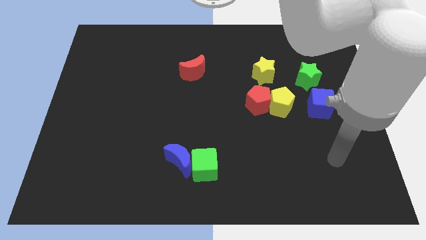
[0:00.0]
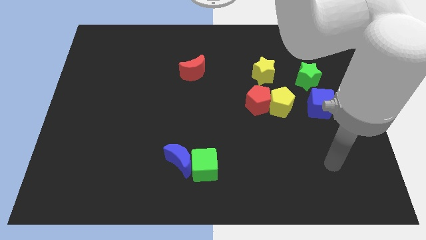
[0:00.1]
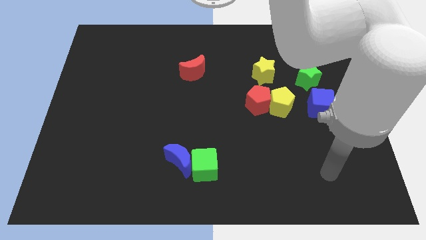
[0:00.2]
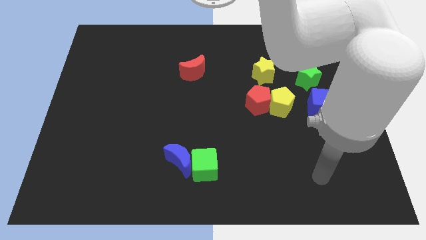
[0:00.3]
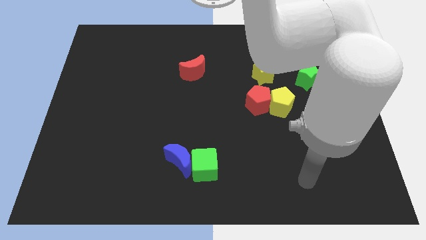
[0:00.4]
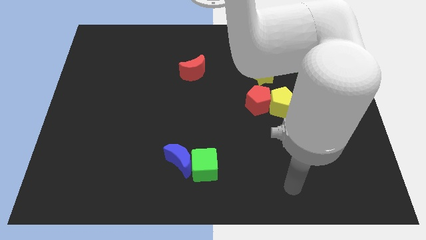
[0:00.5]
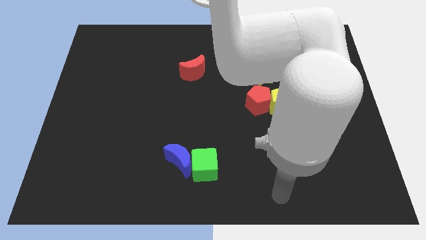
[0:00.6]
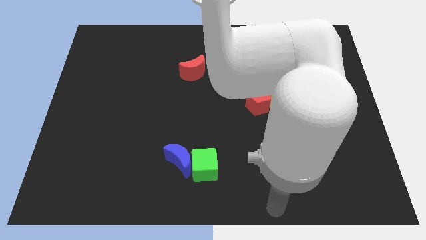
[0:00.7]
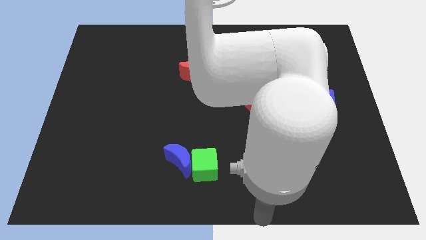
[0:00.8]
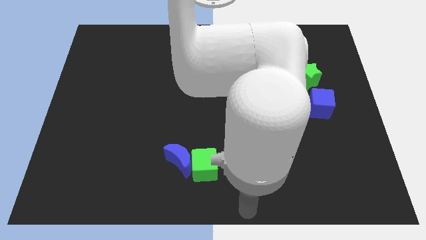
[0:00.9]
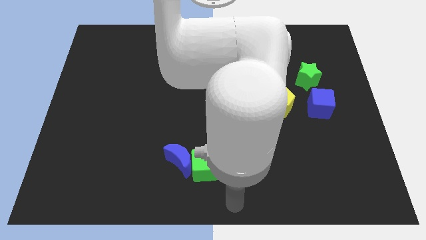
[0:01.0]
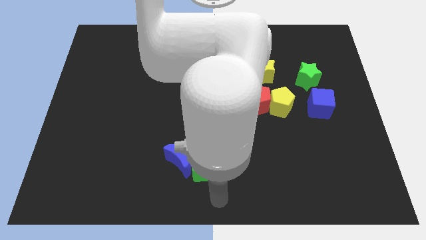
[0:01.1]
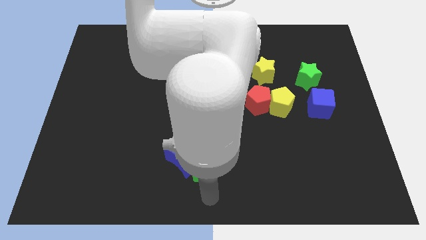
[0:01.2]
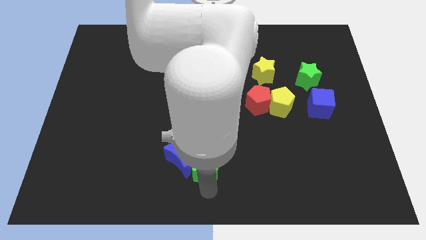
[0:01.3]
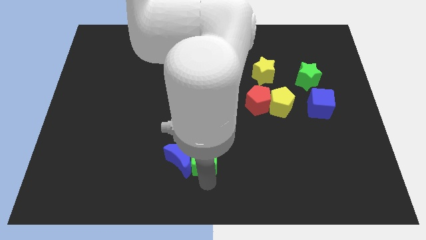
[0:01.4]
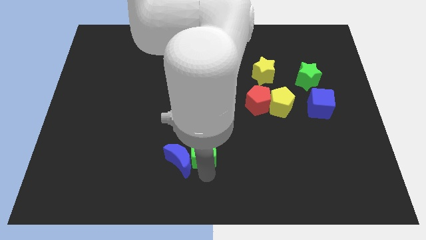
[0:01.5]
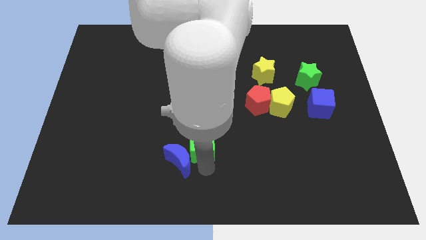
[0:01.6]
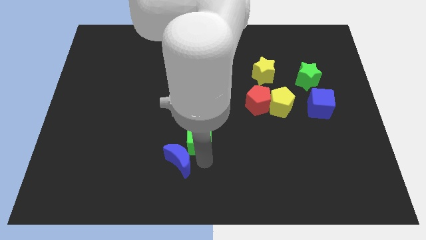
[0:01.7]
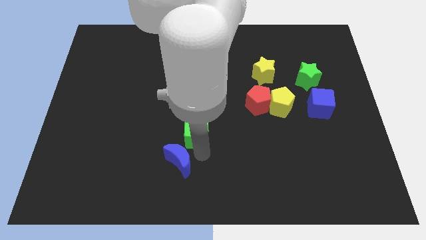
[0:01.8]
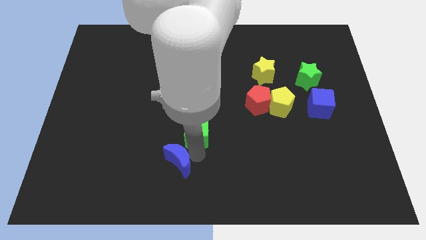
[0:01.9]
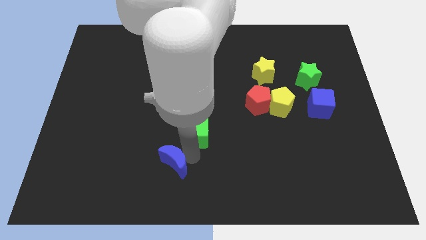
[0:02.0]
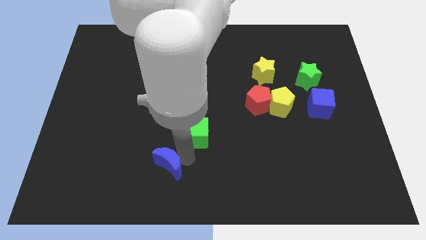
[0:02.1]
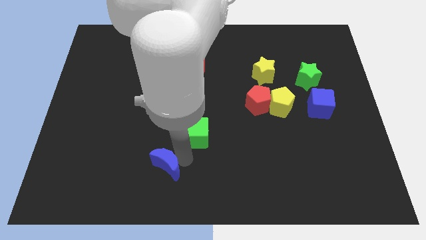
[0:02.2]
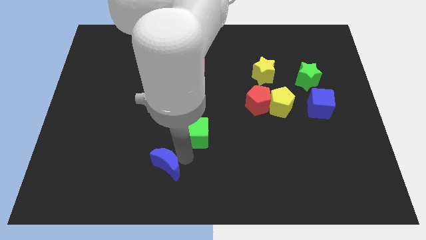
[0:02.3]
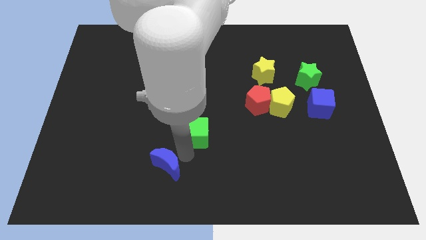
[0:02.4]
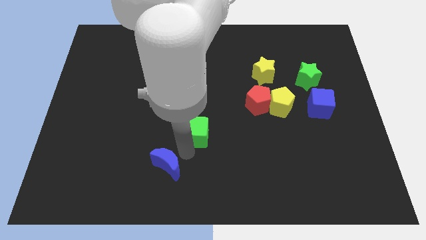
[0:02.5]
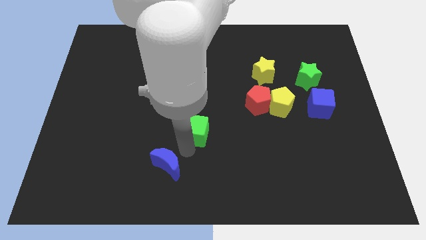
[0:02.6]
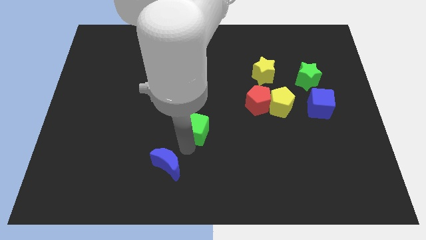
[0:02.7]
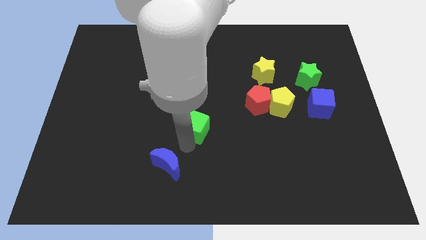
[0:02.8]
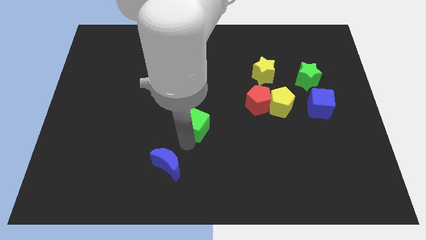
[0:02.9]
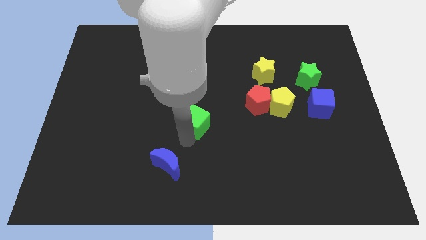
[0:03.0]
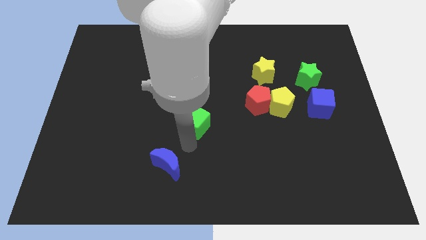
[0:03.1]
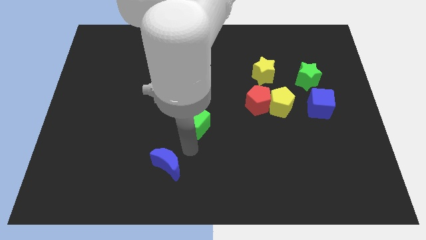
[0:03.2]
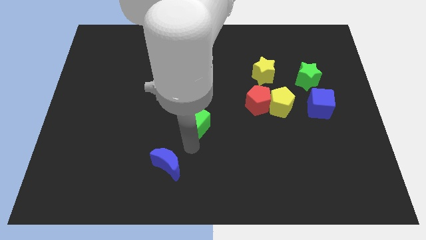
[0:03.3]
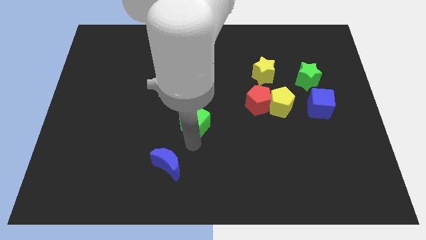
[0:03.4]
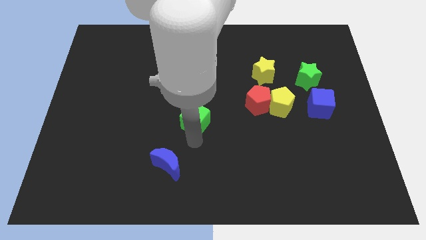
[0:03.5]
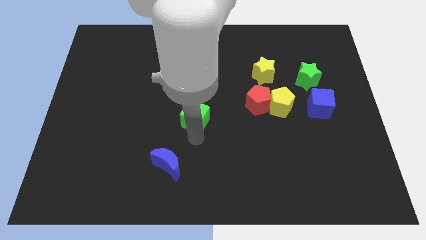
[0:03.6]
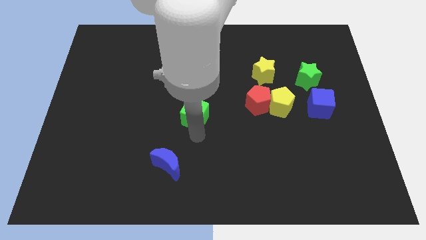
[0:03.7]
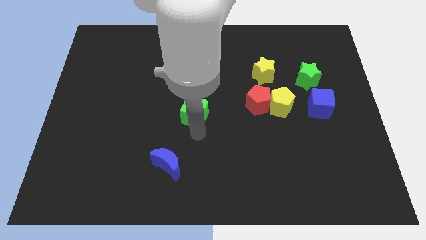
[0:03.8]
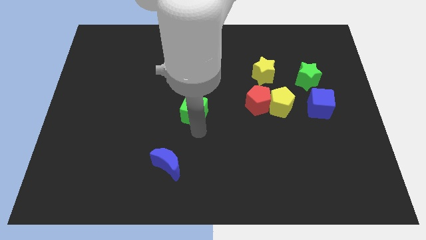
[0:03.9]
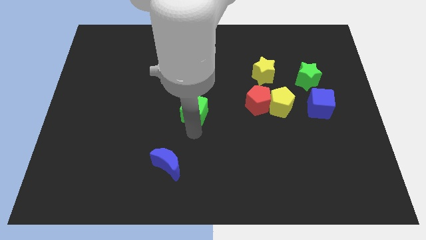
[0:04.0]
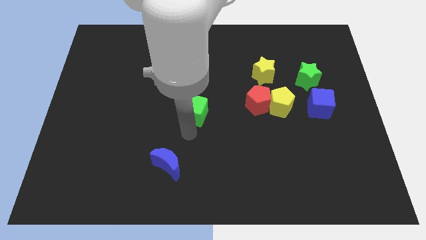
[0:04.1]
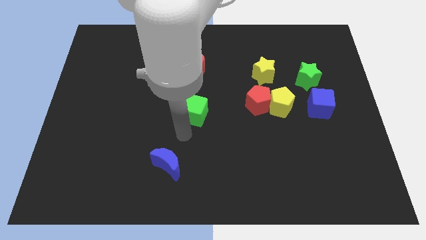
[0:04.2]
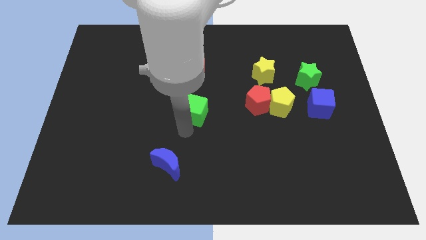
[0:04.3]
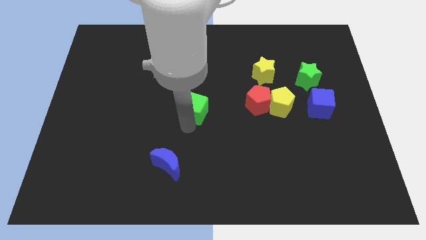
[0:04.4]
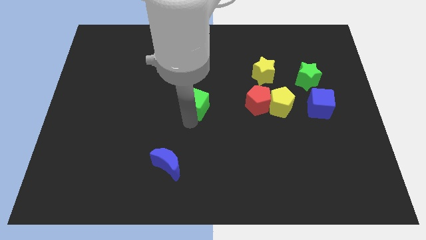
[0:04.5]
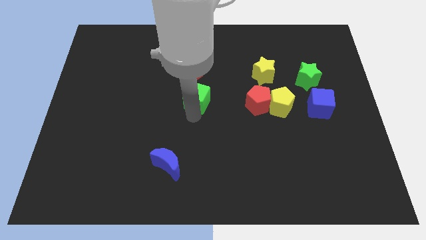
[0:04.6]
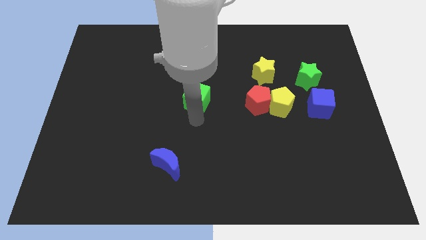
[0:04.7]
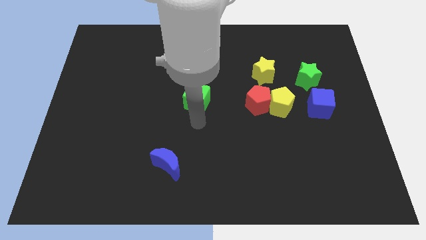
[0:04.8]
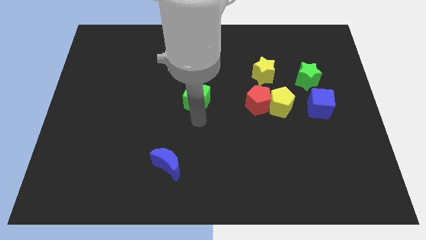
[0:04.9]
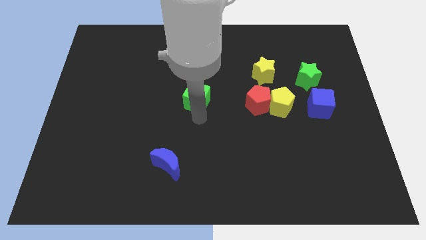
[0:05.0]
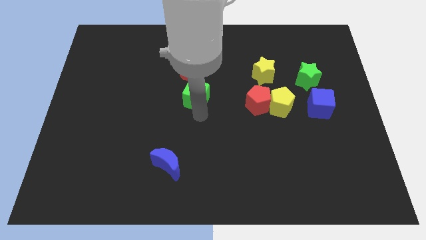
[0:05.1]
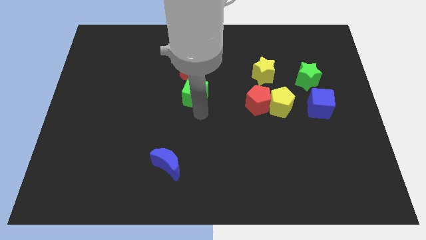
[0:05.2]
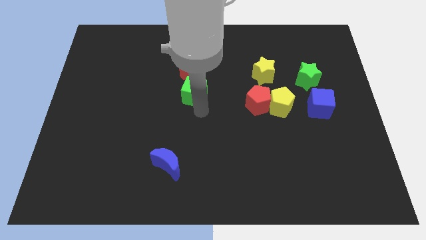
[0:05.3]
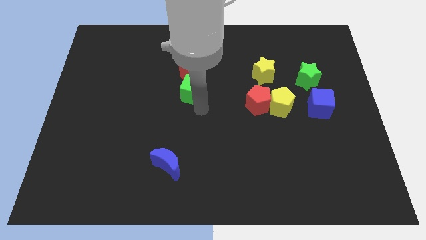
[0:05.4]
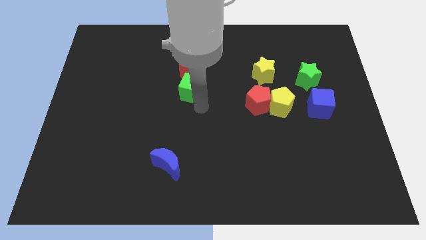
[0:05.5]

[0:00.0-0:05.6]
put the green cube towards the red moon

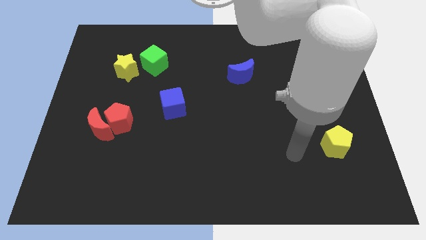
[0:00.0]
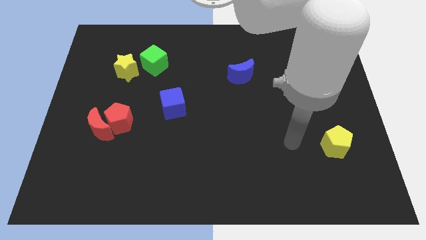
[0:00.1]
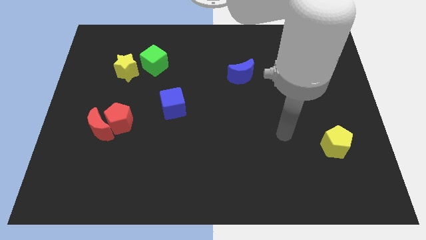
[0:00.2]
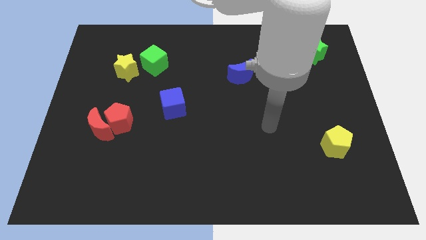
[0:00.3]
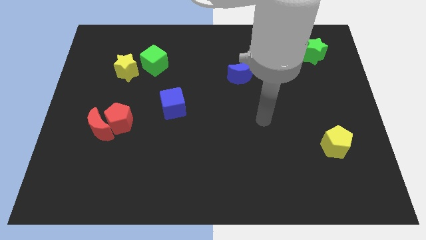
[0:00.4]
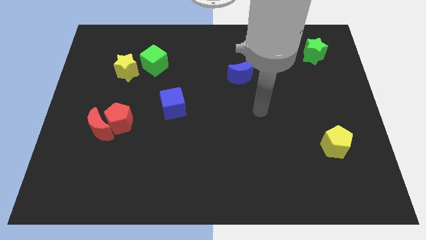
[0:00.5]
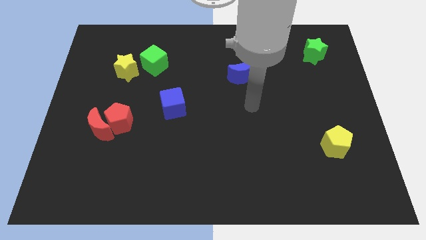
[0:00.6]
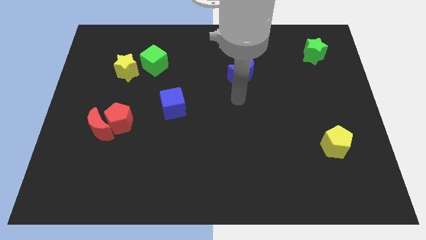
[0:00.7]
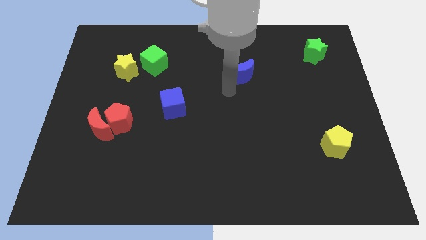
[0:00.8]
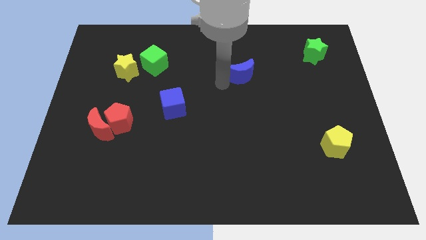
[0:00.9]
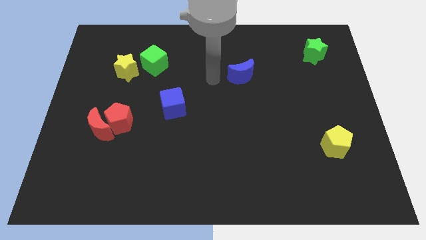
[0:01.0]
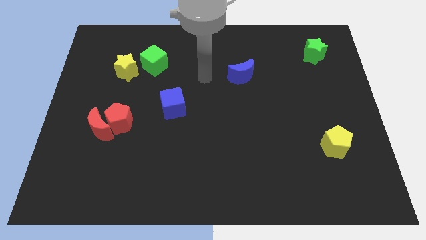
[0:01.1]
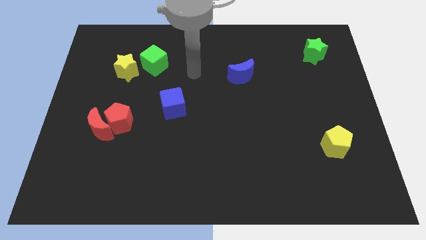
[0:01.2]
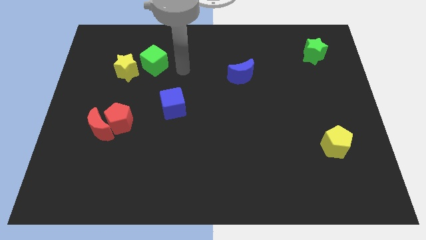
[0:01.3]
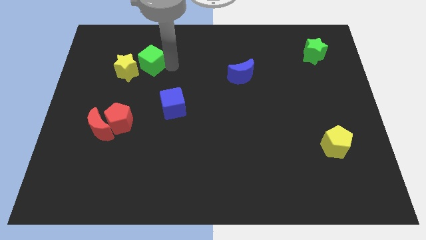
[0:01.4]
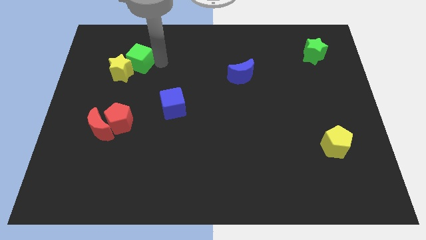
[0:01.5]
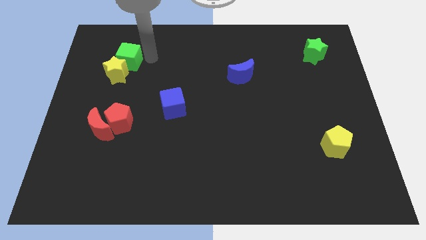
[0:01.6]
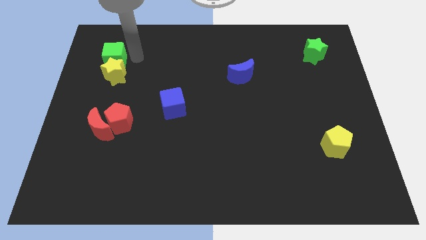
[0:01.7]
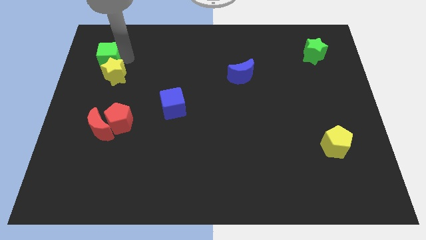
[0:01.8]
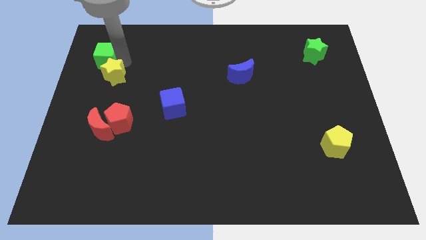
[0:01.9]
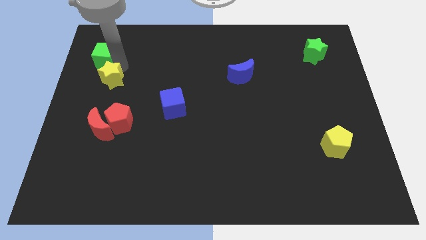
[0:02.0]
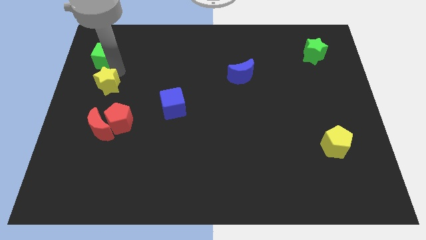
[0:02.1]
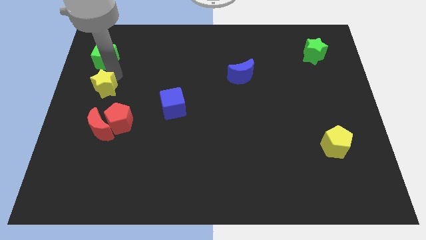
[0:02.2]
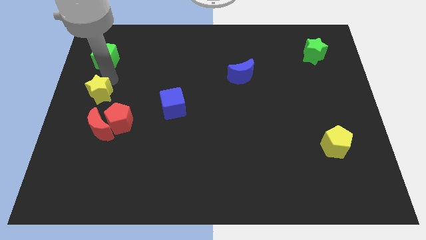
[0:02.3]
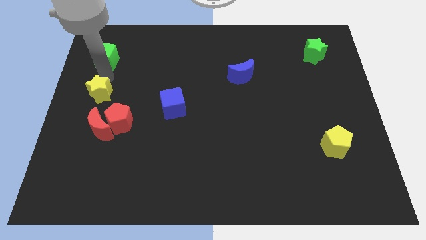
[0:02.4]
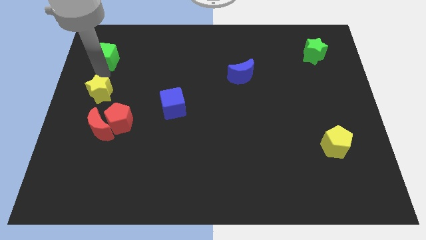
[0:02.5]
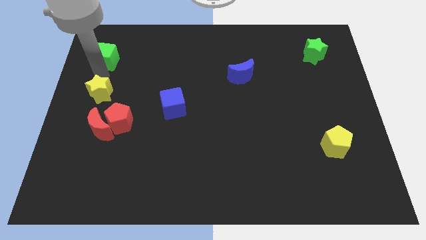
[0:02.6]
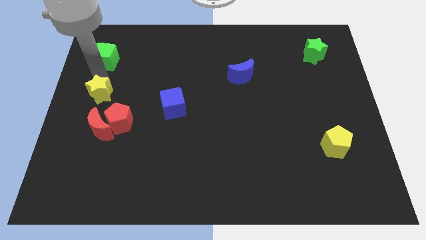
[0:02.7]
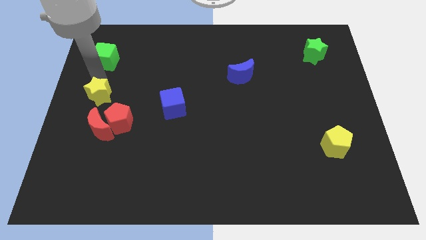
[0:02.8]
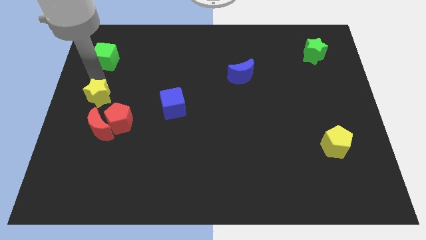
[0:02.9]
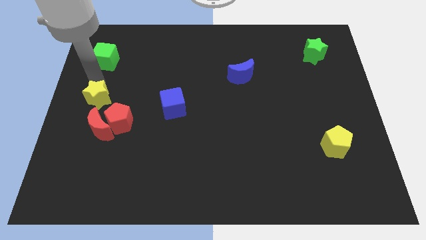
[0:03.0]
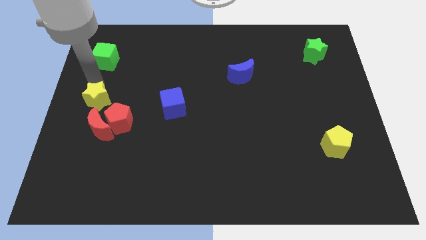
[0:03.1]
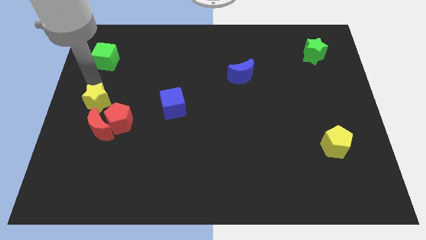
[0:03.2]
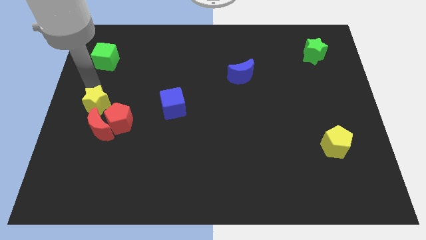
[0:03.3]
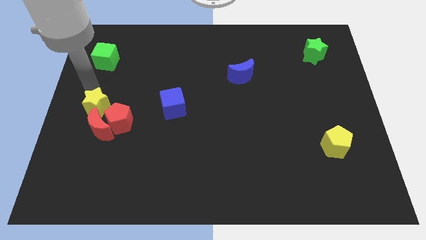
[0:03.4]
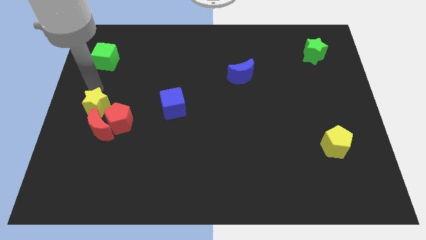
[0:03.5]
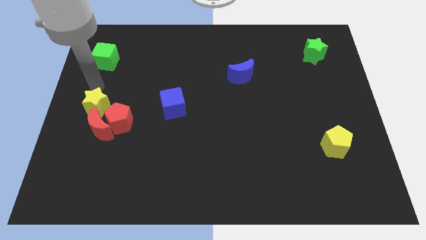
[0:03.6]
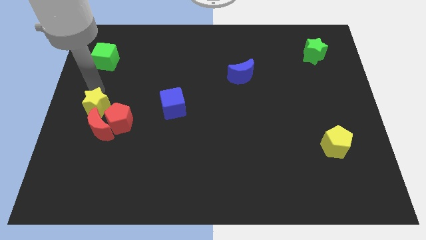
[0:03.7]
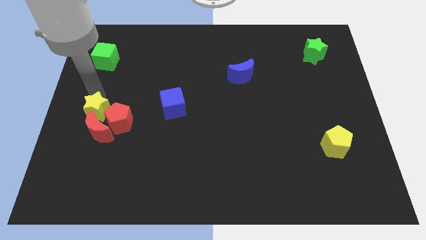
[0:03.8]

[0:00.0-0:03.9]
move the yellow star to the red moon
